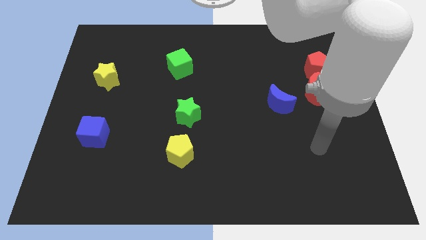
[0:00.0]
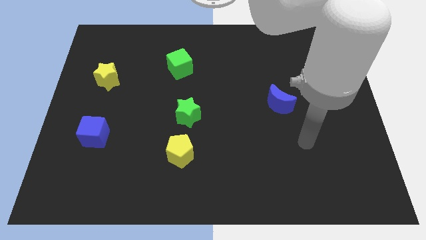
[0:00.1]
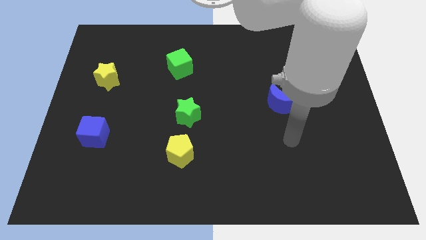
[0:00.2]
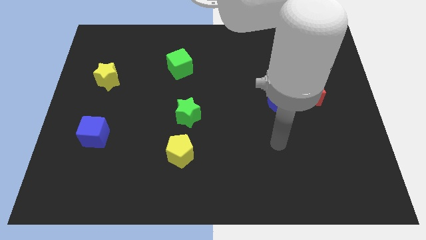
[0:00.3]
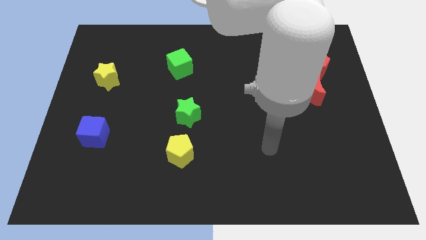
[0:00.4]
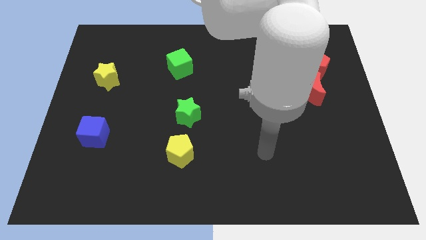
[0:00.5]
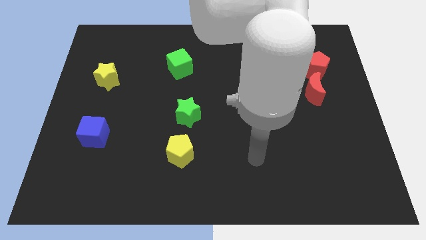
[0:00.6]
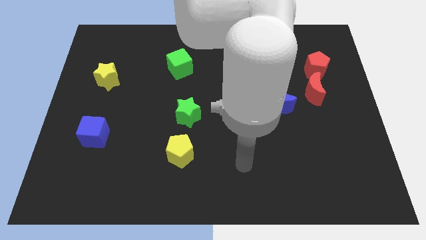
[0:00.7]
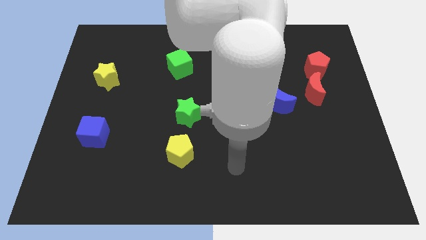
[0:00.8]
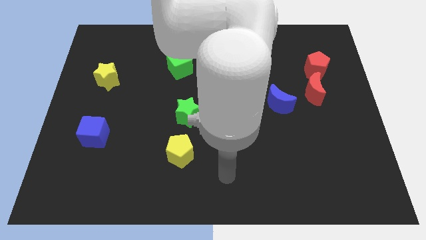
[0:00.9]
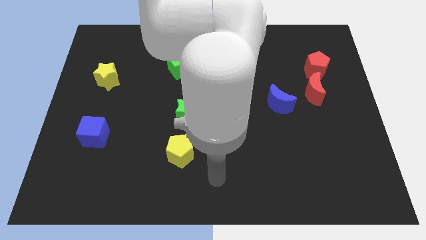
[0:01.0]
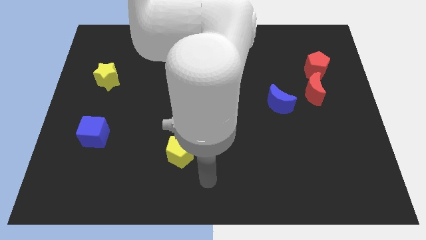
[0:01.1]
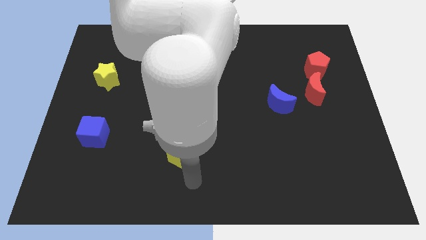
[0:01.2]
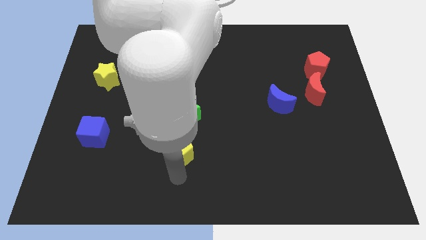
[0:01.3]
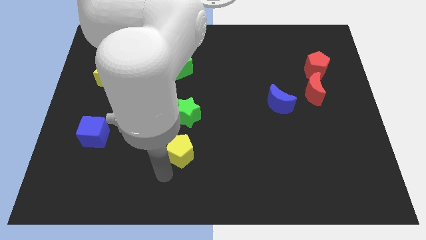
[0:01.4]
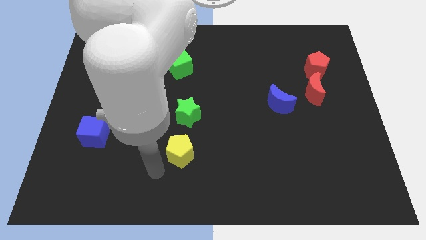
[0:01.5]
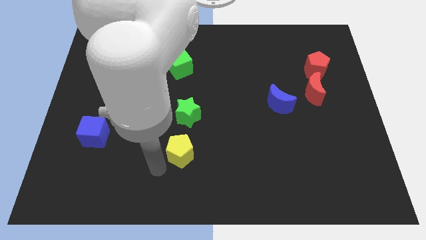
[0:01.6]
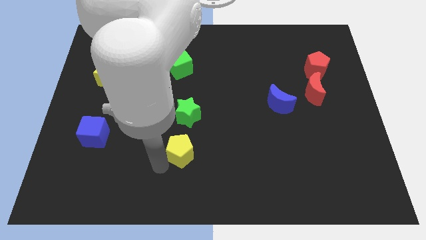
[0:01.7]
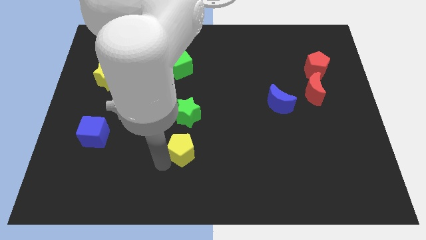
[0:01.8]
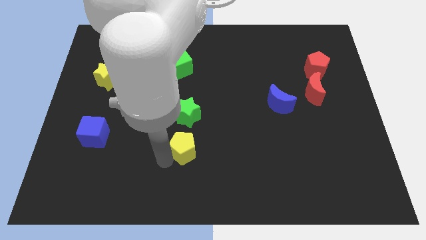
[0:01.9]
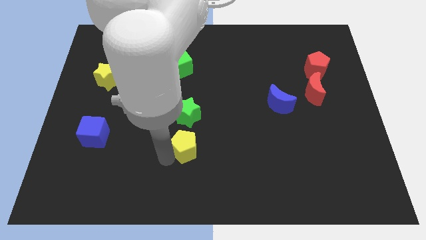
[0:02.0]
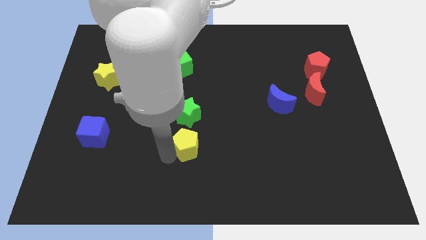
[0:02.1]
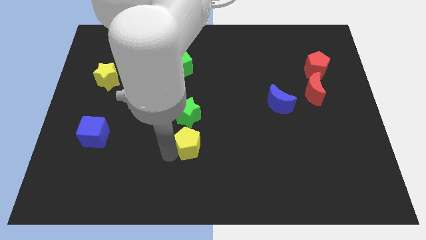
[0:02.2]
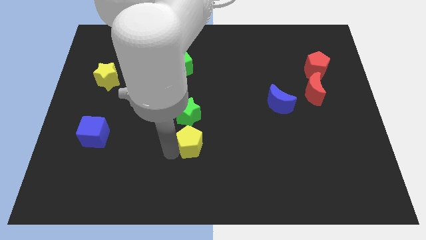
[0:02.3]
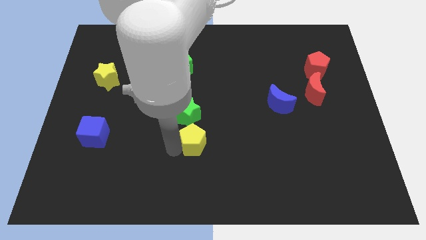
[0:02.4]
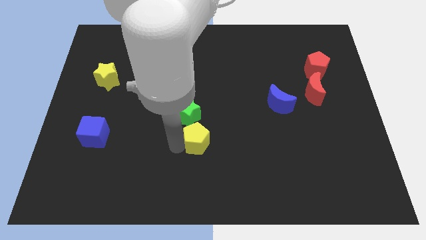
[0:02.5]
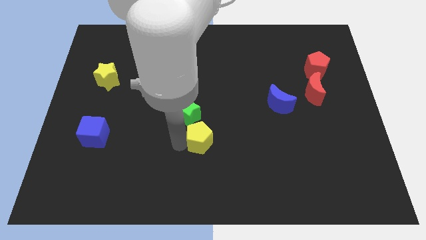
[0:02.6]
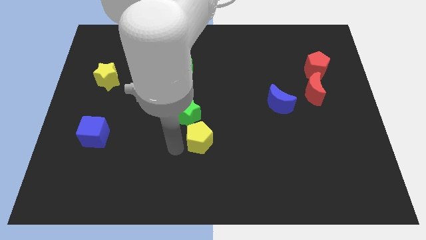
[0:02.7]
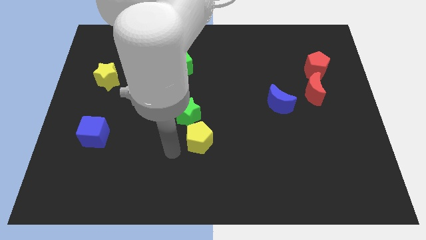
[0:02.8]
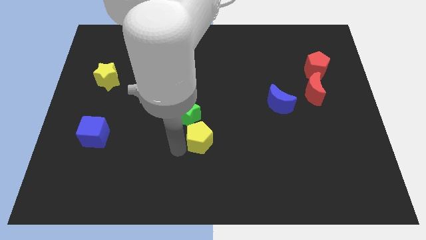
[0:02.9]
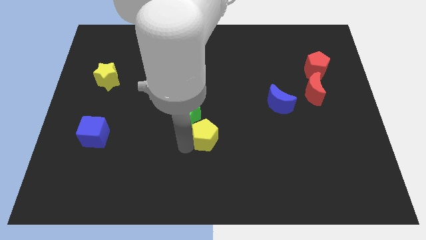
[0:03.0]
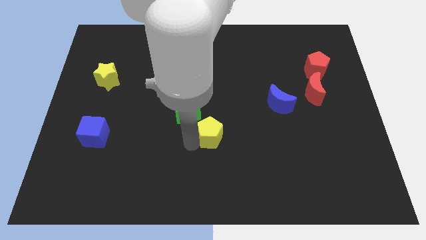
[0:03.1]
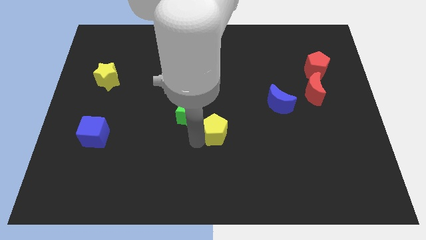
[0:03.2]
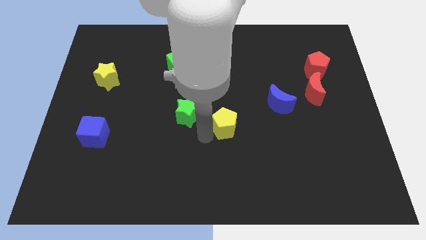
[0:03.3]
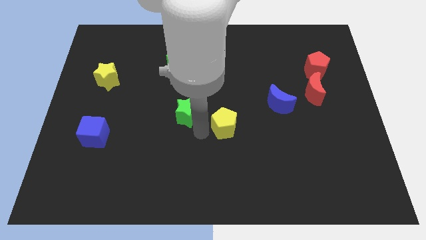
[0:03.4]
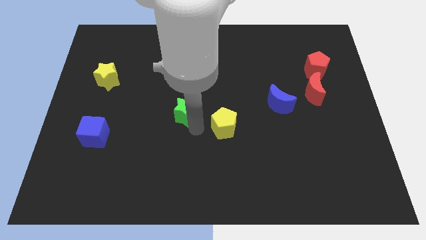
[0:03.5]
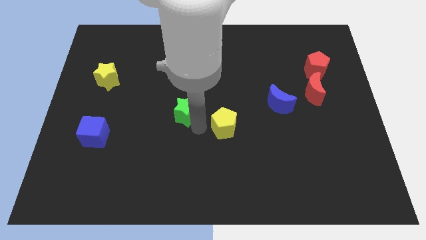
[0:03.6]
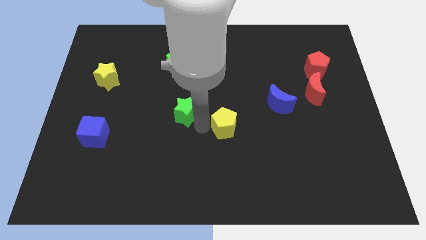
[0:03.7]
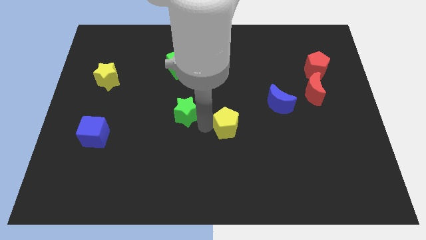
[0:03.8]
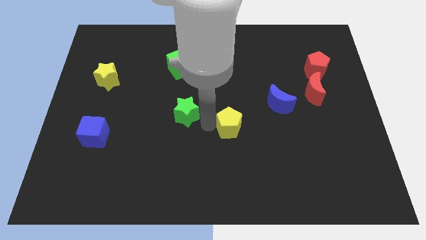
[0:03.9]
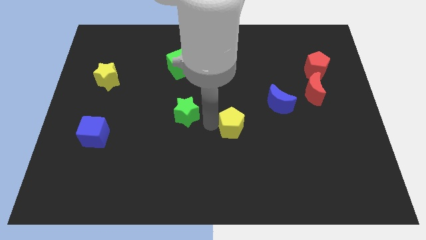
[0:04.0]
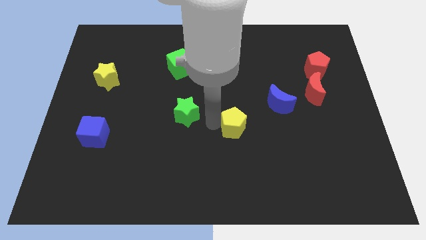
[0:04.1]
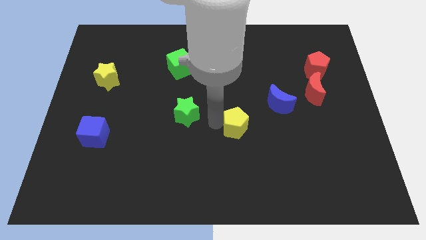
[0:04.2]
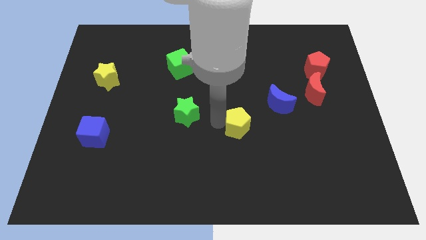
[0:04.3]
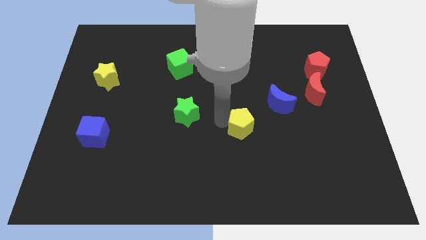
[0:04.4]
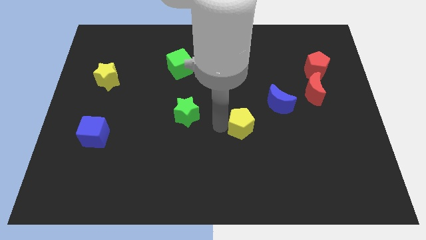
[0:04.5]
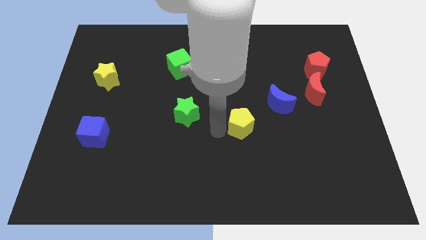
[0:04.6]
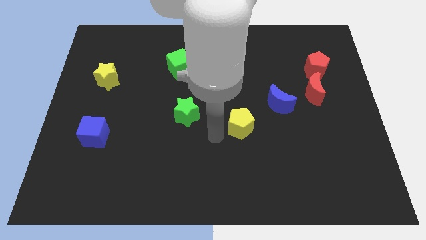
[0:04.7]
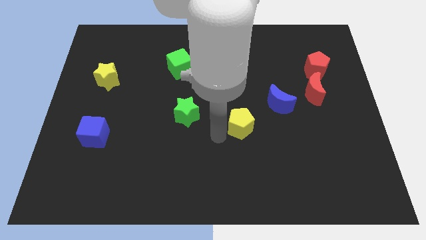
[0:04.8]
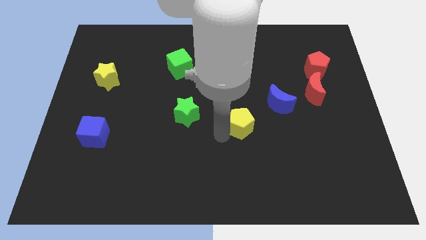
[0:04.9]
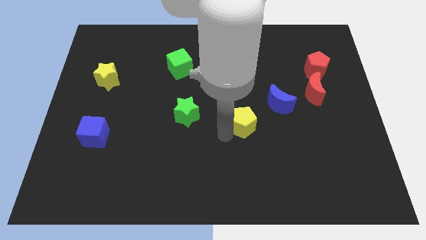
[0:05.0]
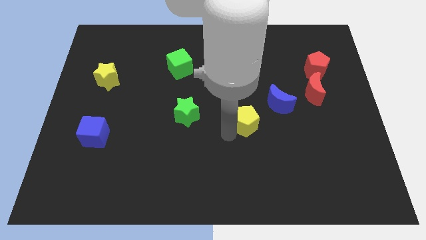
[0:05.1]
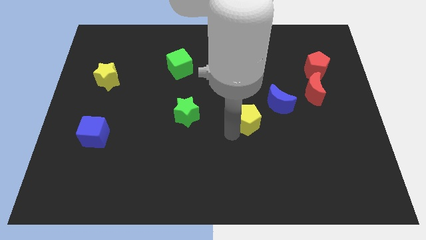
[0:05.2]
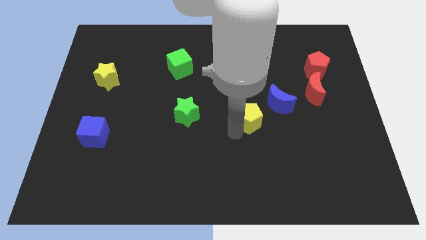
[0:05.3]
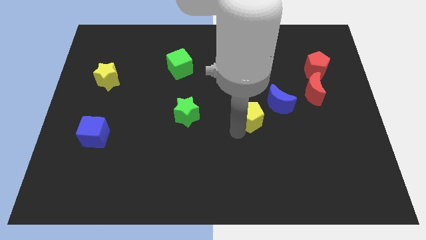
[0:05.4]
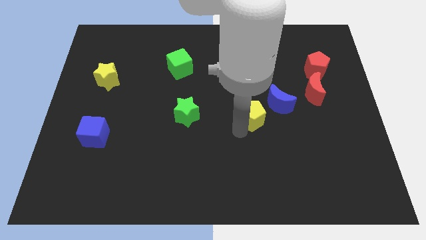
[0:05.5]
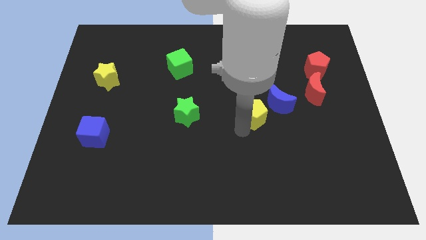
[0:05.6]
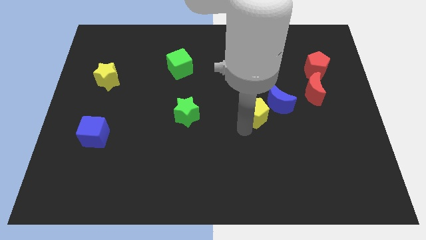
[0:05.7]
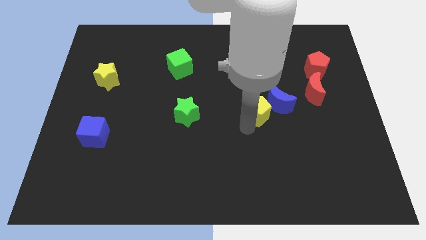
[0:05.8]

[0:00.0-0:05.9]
push the yellow pentagon towards the blue moon

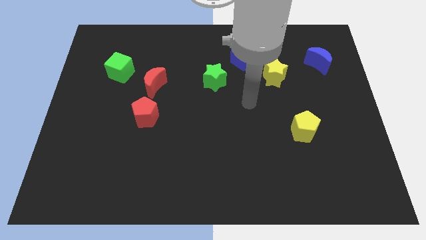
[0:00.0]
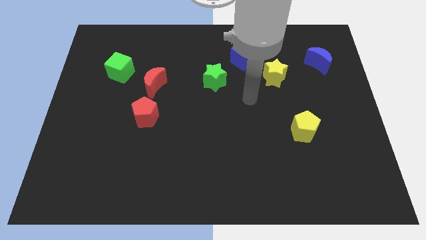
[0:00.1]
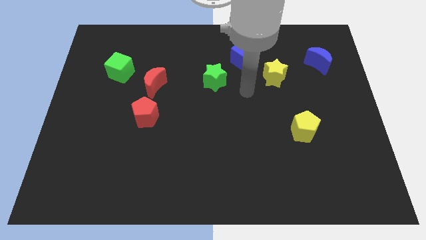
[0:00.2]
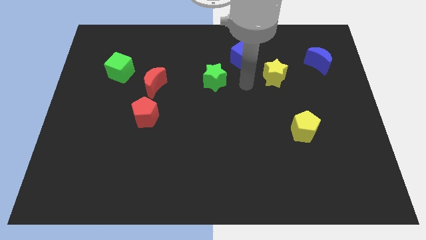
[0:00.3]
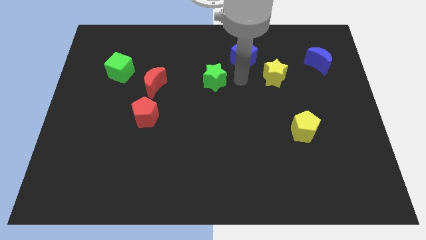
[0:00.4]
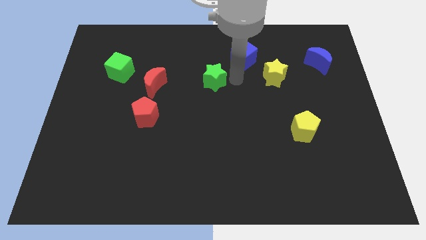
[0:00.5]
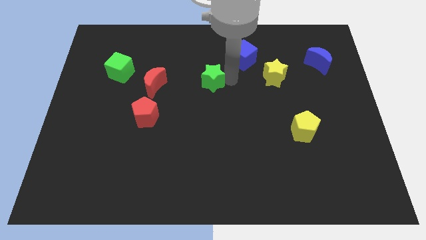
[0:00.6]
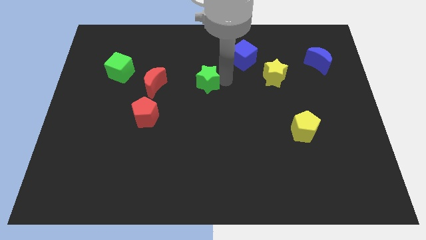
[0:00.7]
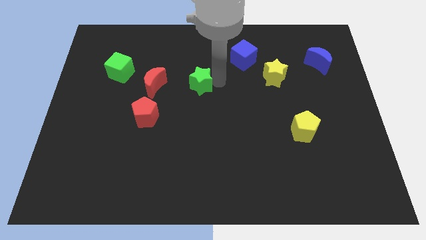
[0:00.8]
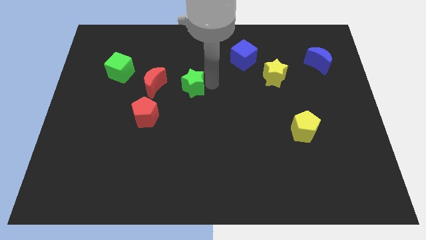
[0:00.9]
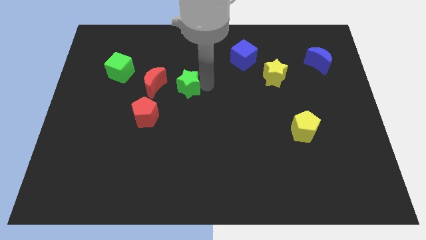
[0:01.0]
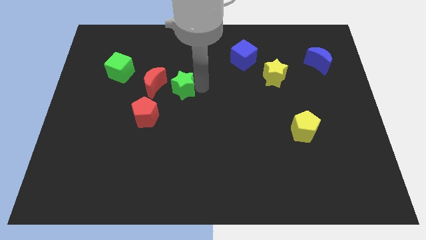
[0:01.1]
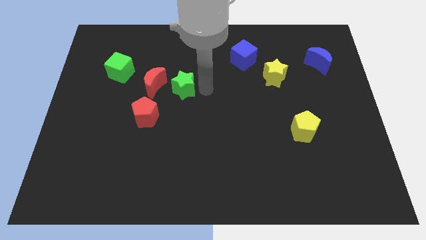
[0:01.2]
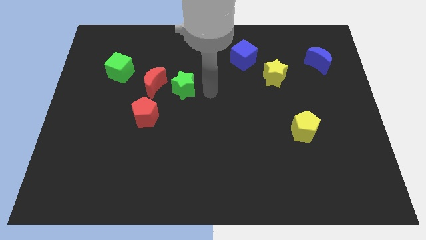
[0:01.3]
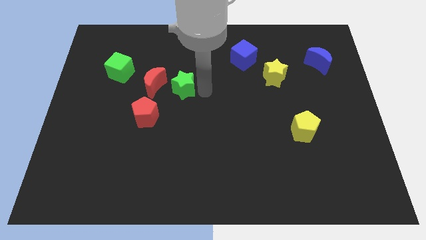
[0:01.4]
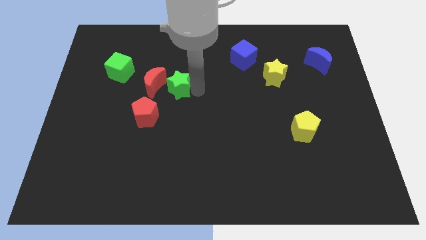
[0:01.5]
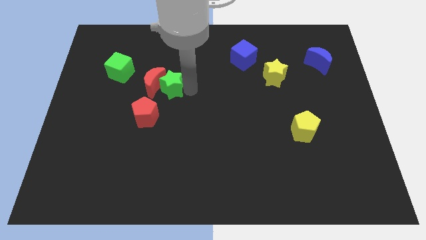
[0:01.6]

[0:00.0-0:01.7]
put the green star towards the red moon
